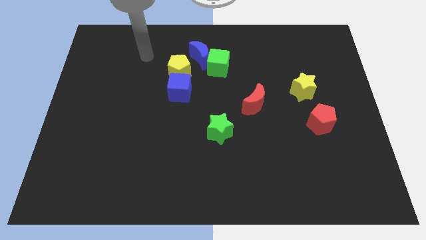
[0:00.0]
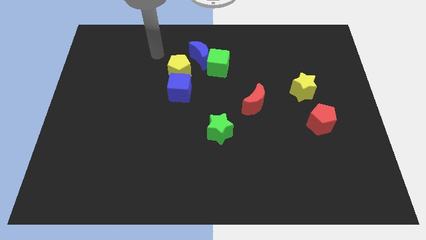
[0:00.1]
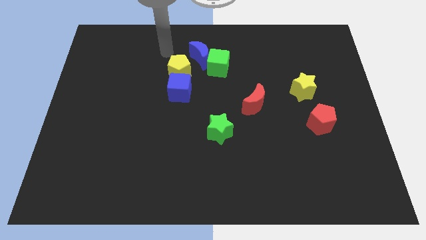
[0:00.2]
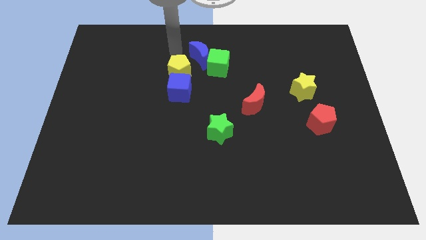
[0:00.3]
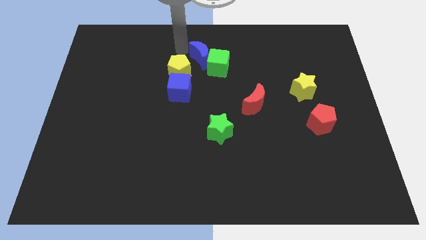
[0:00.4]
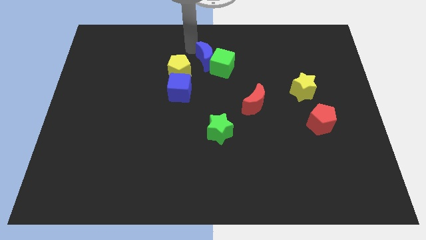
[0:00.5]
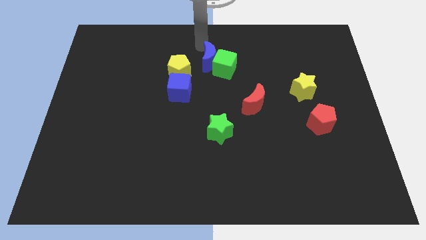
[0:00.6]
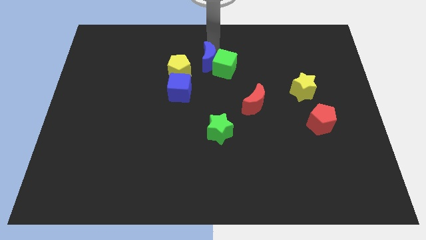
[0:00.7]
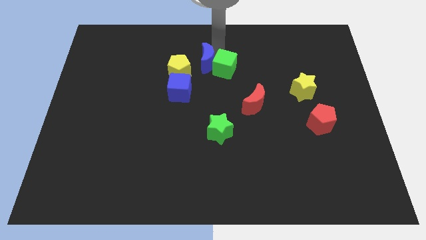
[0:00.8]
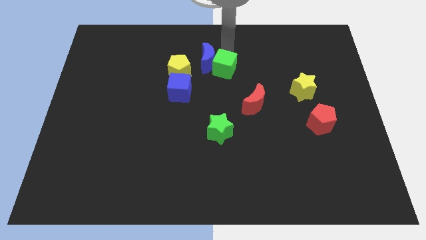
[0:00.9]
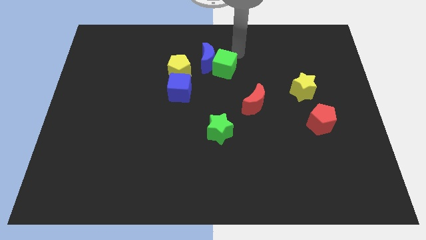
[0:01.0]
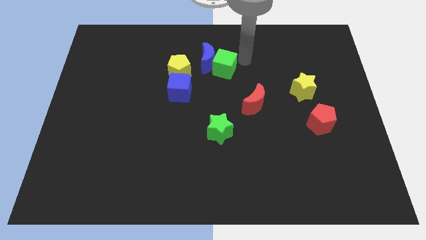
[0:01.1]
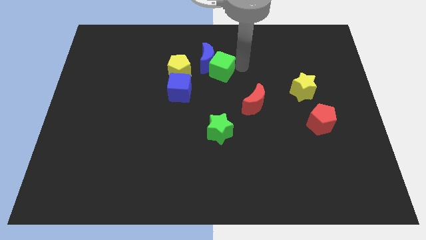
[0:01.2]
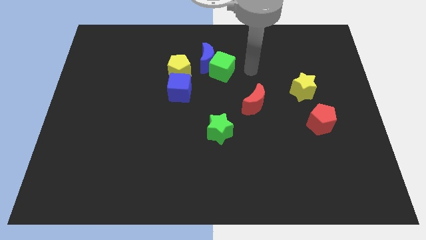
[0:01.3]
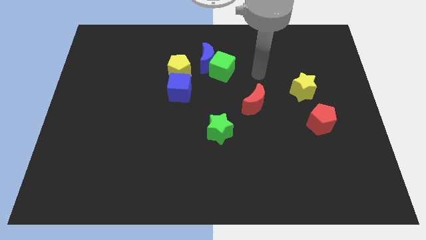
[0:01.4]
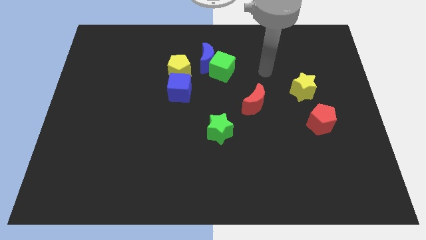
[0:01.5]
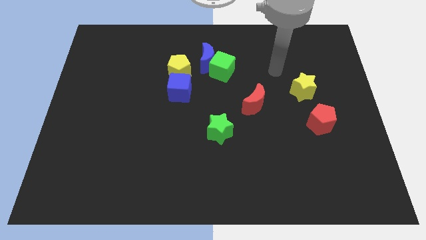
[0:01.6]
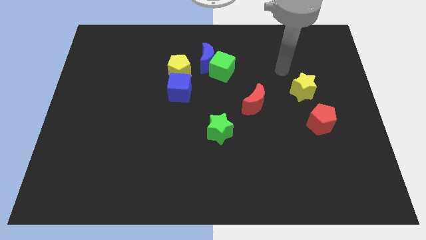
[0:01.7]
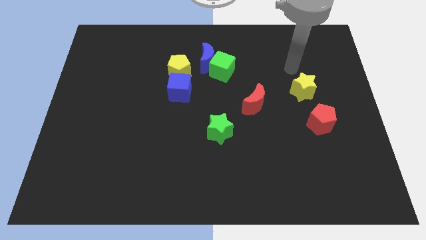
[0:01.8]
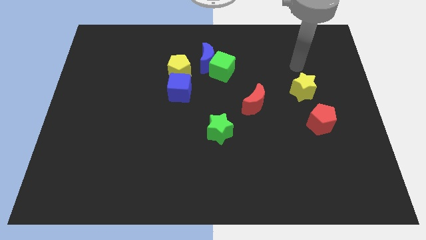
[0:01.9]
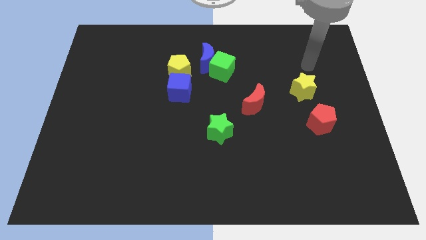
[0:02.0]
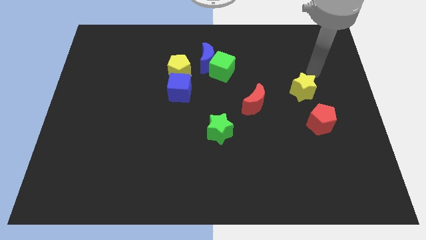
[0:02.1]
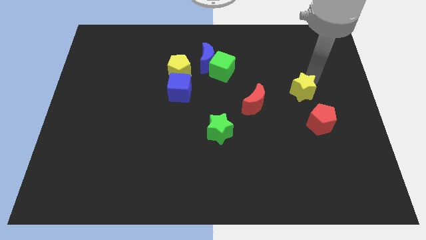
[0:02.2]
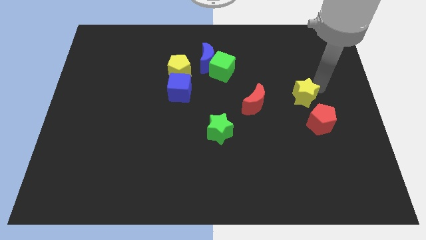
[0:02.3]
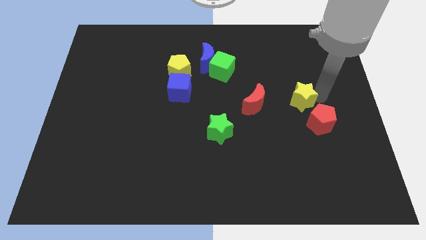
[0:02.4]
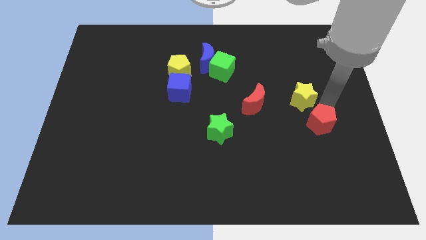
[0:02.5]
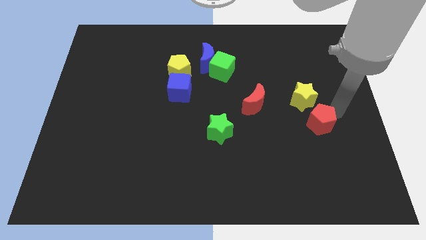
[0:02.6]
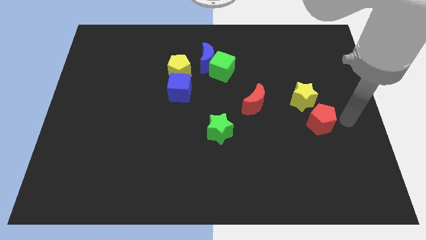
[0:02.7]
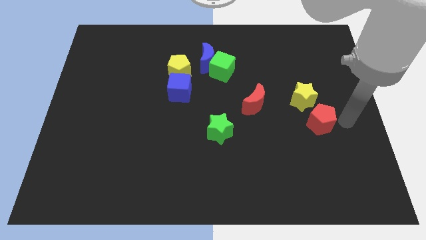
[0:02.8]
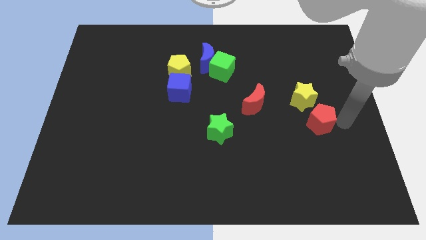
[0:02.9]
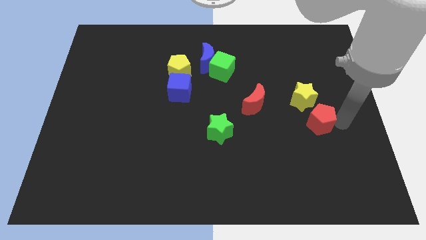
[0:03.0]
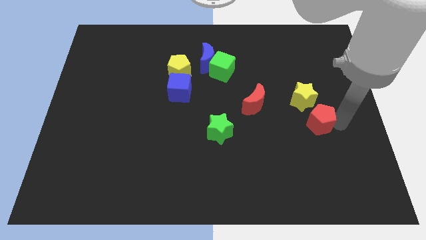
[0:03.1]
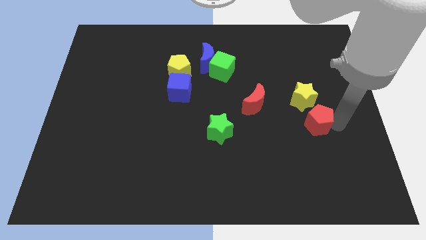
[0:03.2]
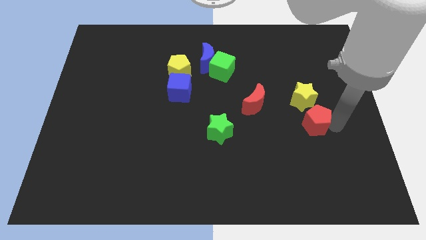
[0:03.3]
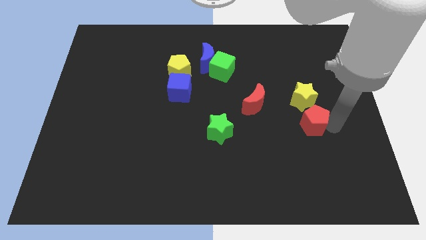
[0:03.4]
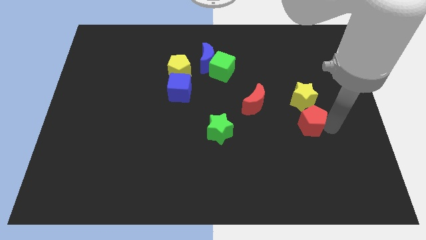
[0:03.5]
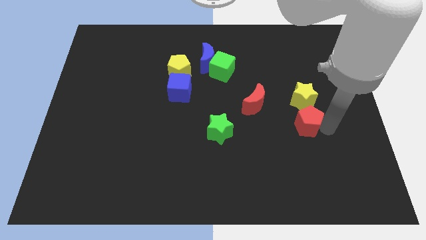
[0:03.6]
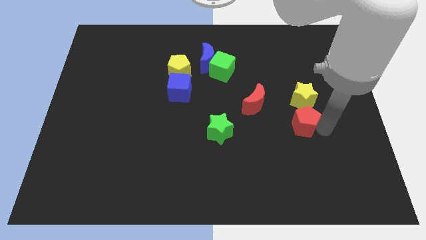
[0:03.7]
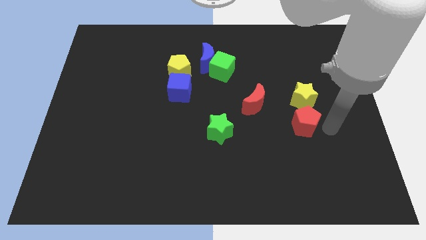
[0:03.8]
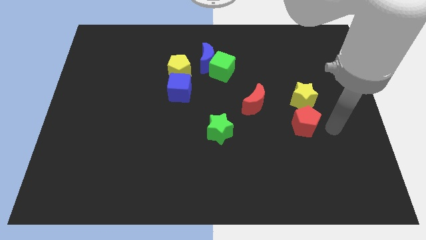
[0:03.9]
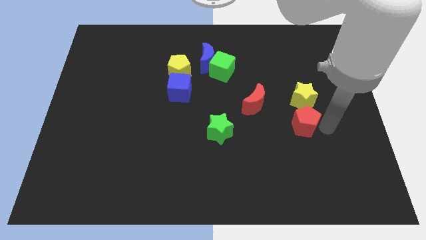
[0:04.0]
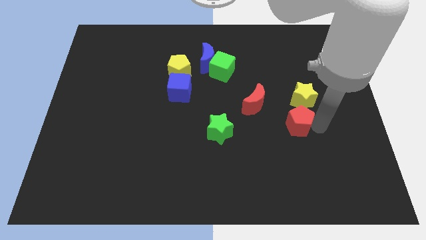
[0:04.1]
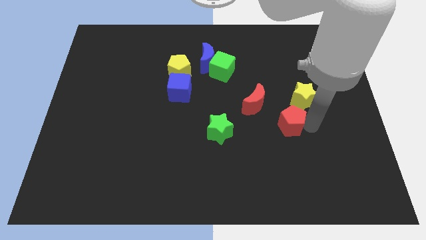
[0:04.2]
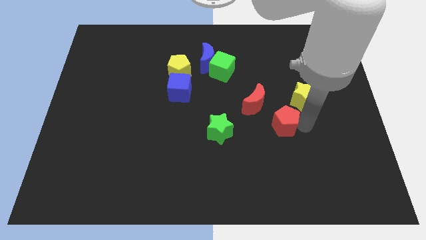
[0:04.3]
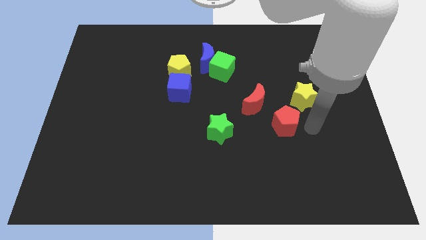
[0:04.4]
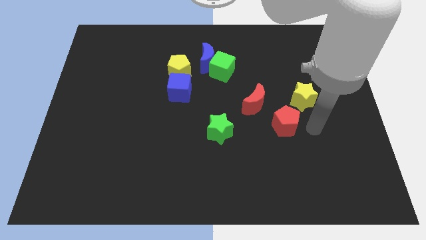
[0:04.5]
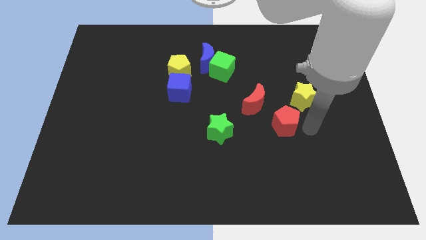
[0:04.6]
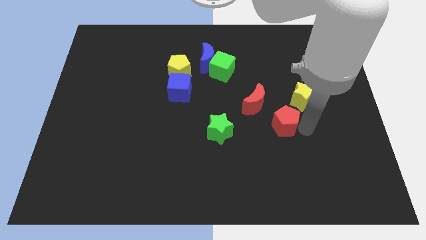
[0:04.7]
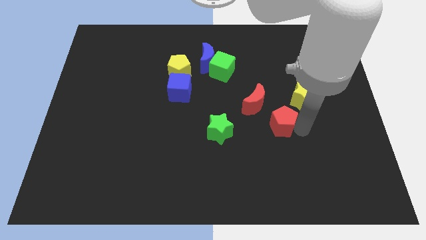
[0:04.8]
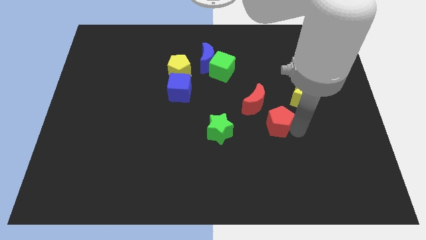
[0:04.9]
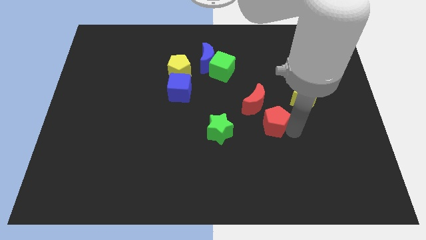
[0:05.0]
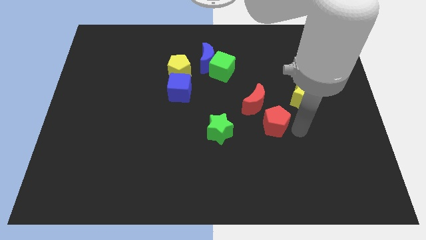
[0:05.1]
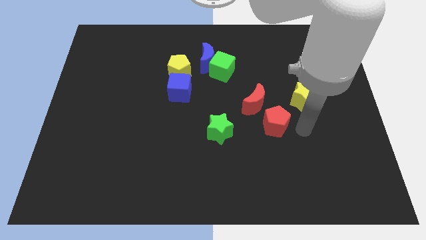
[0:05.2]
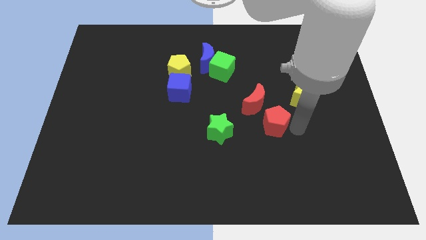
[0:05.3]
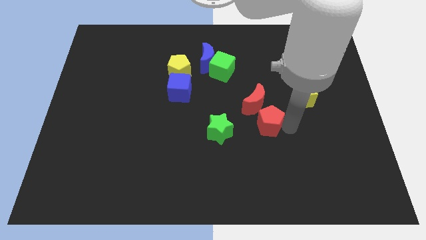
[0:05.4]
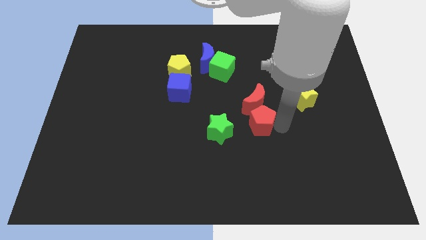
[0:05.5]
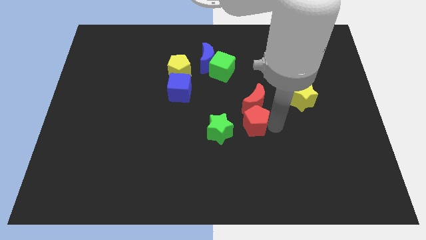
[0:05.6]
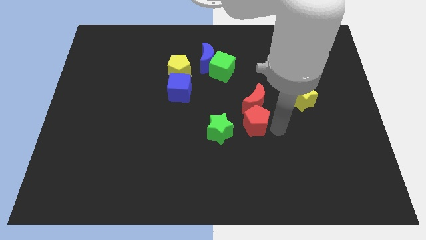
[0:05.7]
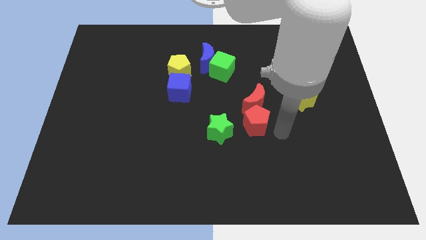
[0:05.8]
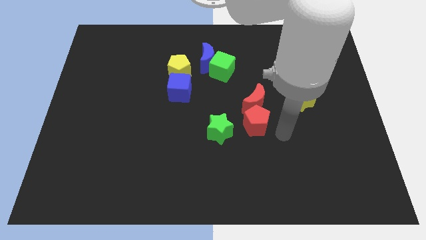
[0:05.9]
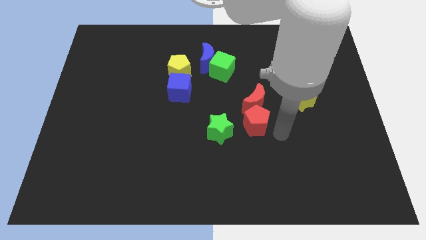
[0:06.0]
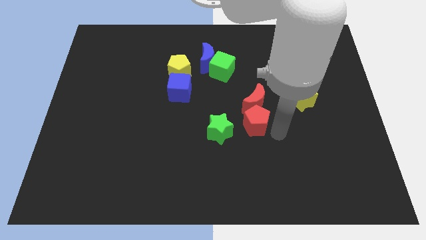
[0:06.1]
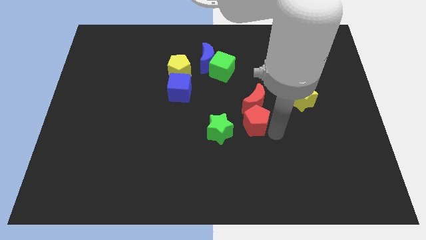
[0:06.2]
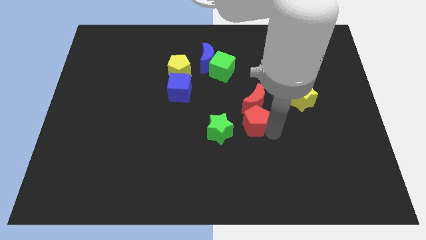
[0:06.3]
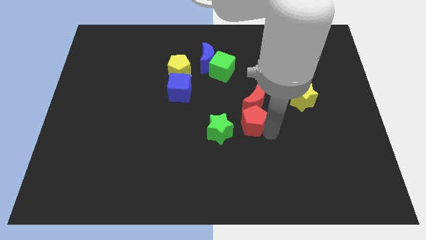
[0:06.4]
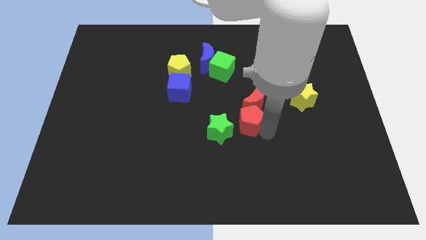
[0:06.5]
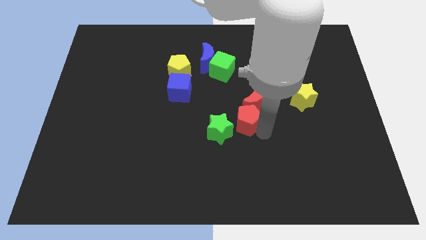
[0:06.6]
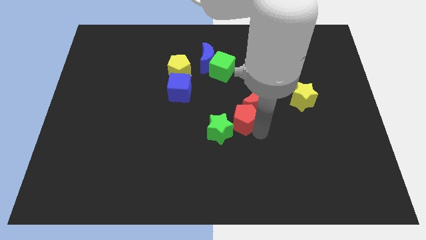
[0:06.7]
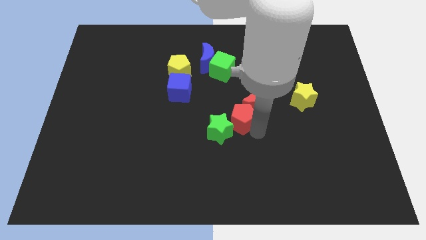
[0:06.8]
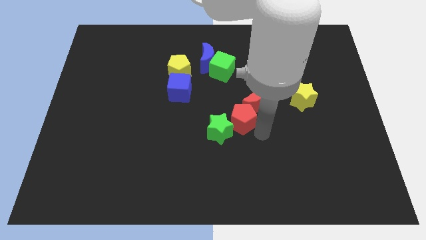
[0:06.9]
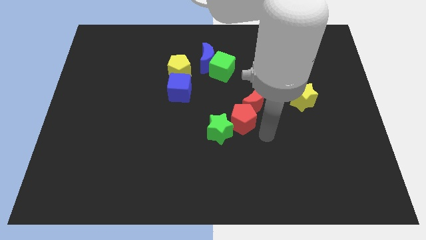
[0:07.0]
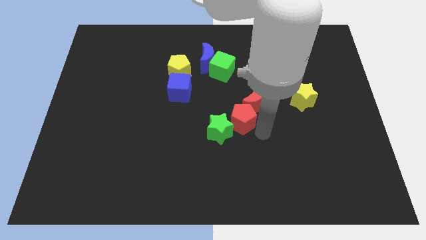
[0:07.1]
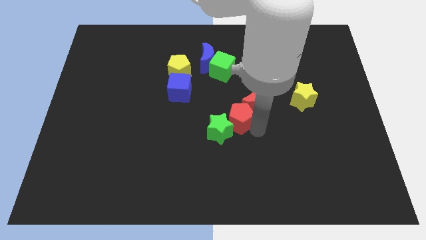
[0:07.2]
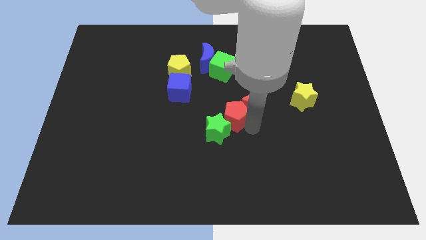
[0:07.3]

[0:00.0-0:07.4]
slide the red pentagon above the green star
